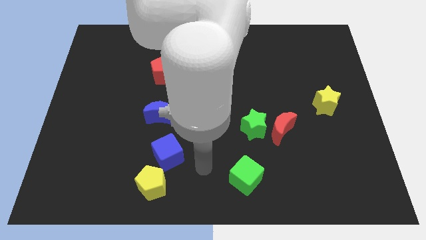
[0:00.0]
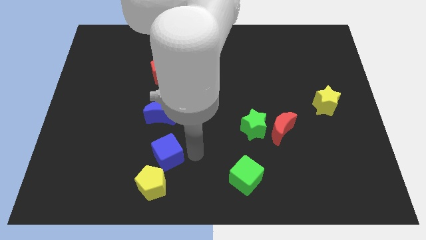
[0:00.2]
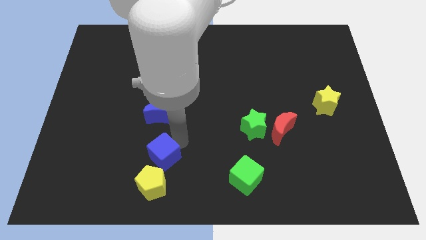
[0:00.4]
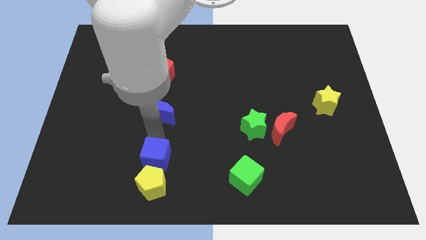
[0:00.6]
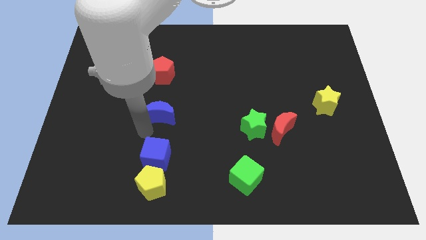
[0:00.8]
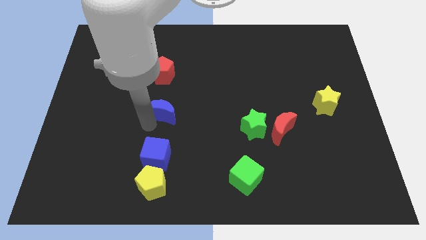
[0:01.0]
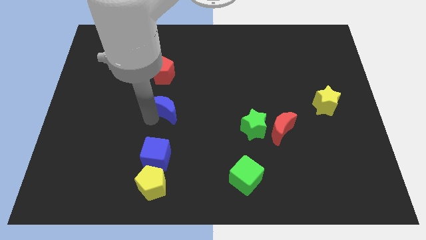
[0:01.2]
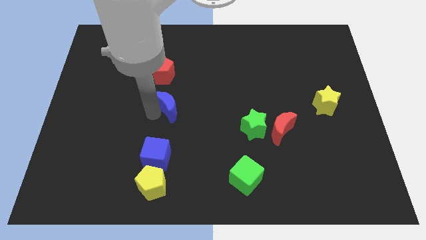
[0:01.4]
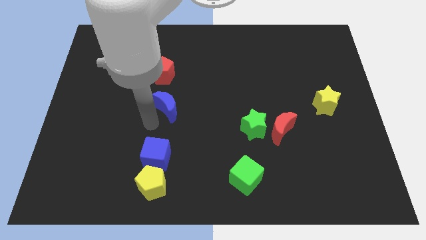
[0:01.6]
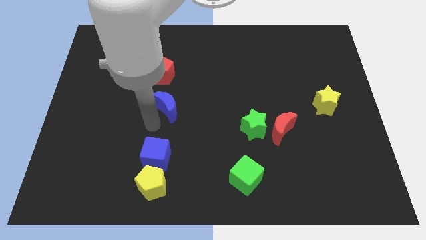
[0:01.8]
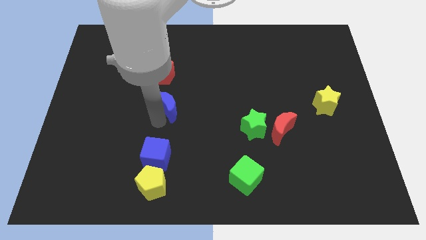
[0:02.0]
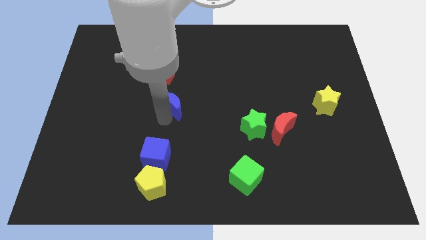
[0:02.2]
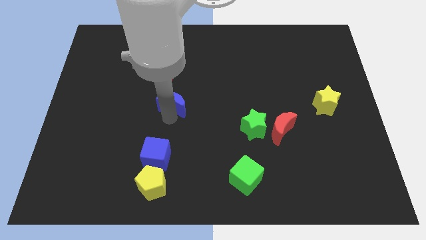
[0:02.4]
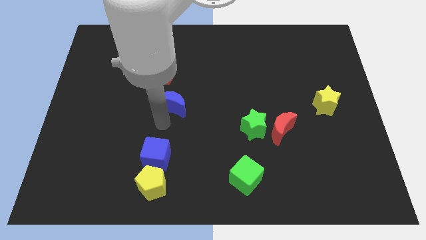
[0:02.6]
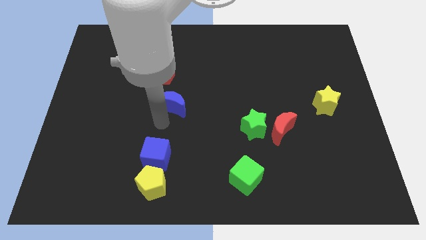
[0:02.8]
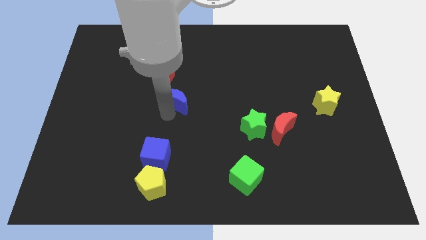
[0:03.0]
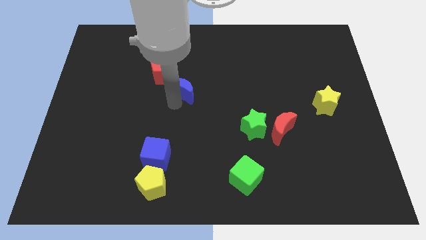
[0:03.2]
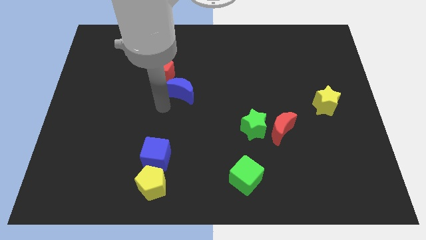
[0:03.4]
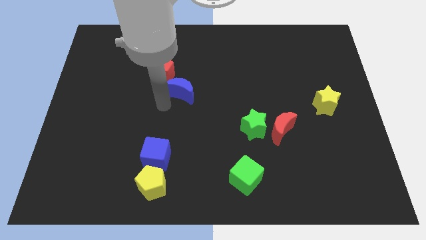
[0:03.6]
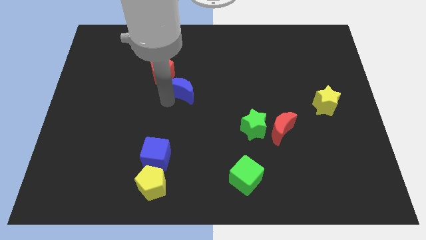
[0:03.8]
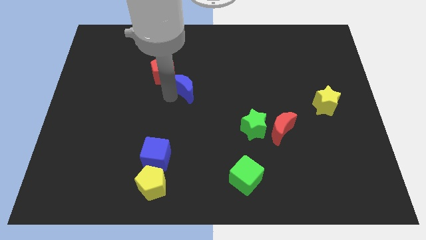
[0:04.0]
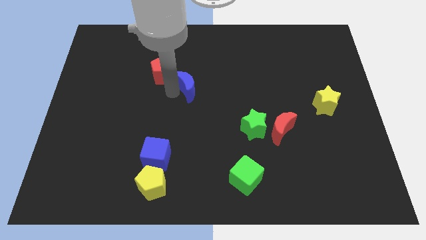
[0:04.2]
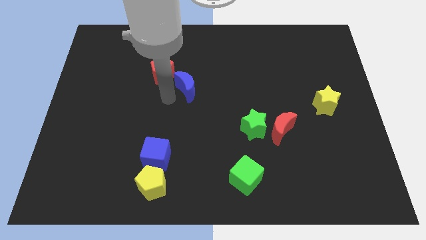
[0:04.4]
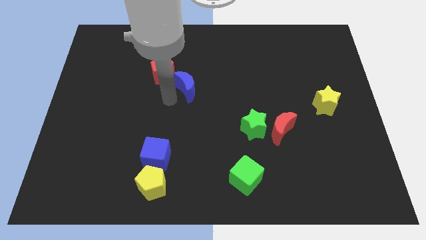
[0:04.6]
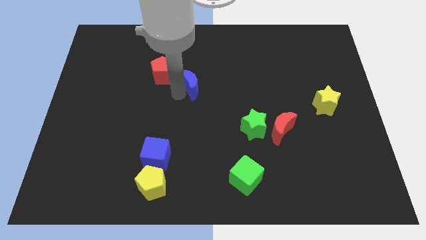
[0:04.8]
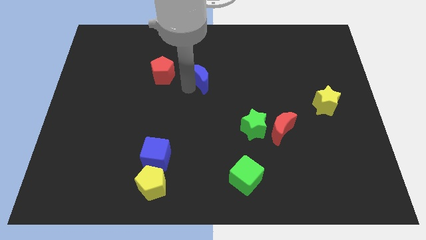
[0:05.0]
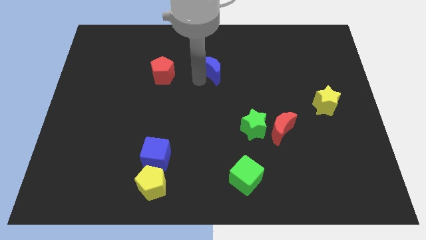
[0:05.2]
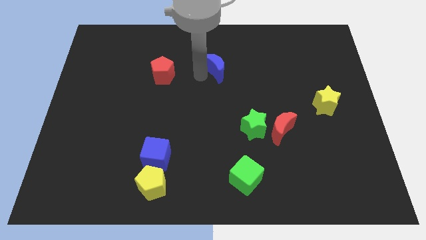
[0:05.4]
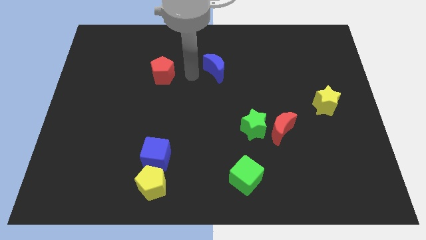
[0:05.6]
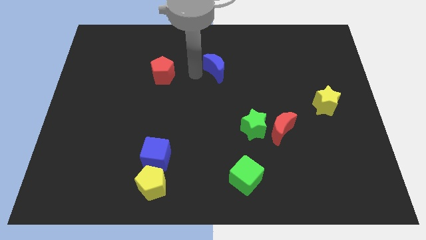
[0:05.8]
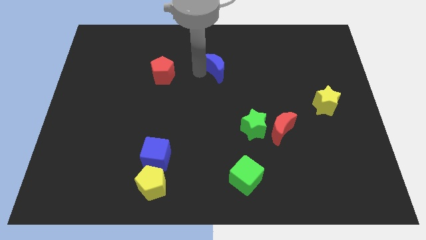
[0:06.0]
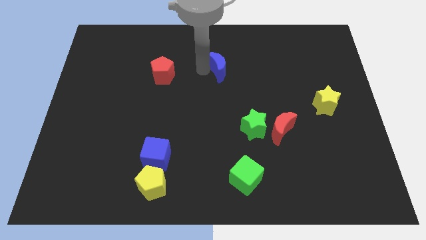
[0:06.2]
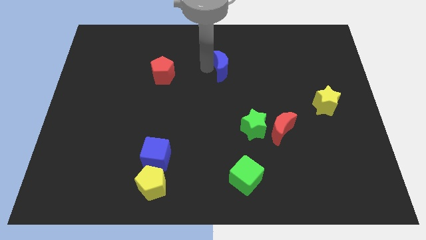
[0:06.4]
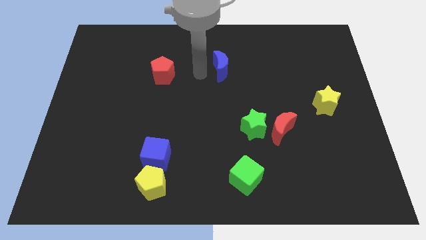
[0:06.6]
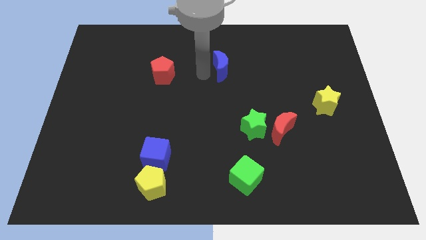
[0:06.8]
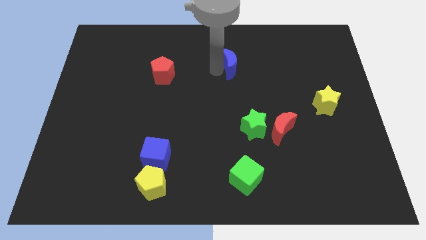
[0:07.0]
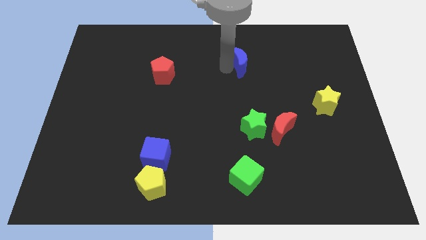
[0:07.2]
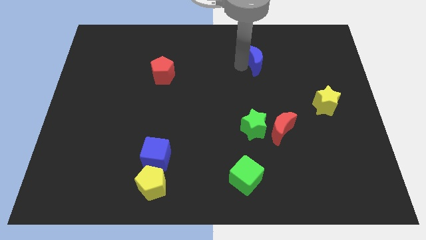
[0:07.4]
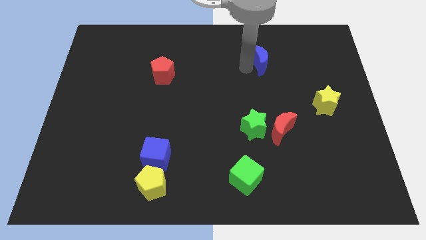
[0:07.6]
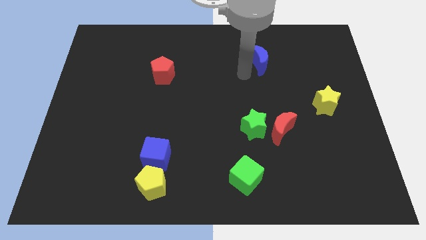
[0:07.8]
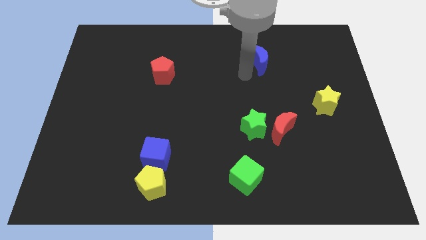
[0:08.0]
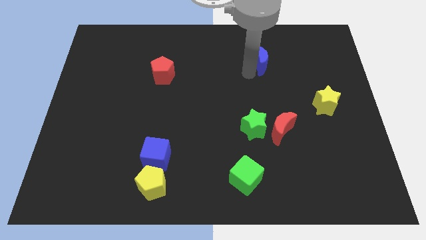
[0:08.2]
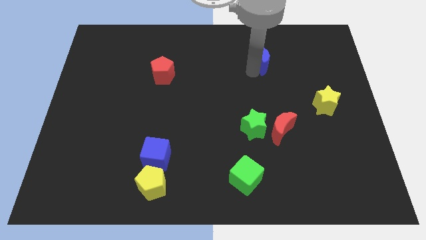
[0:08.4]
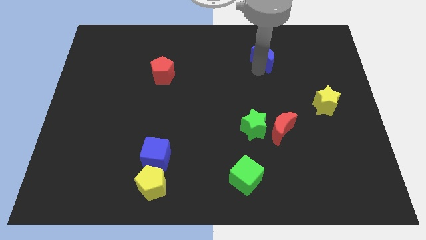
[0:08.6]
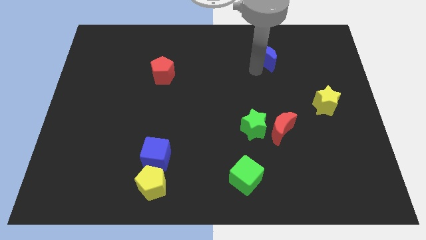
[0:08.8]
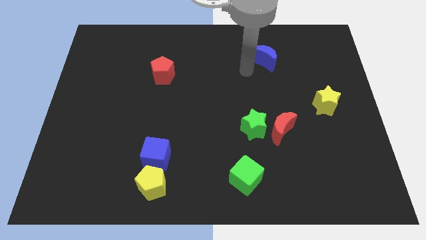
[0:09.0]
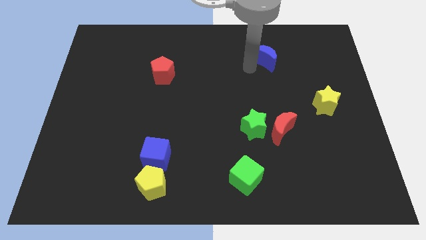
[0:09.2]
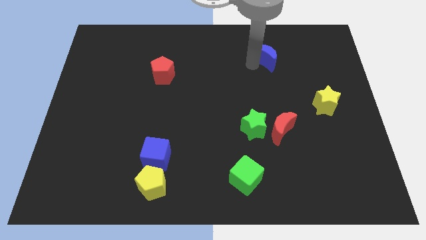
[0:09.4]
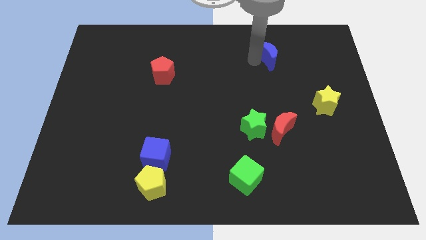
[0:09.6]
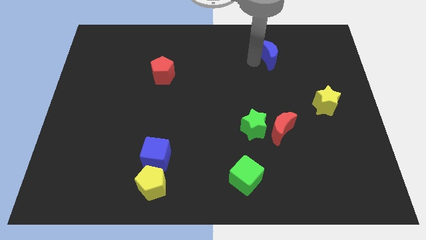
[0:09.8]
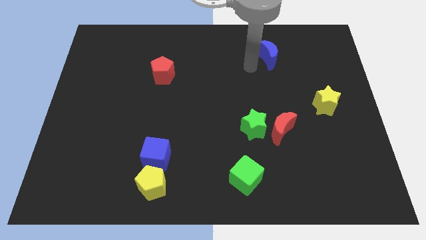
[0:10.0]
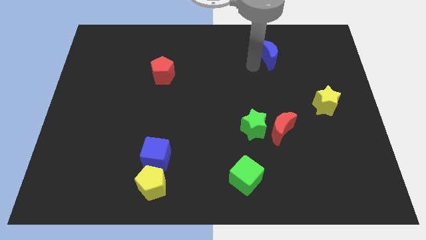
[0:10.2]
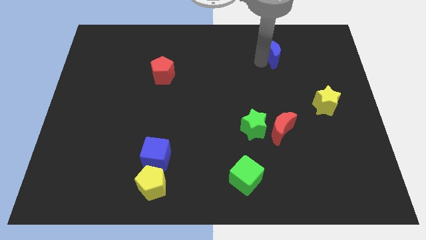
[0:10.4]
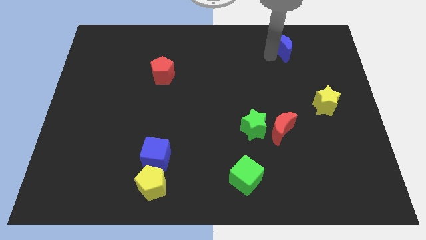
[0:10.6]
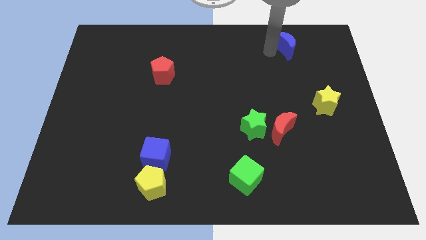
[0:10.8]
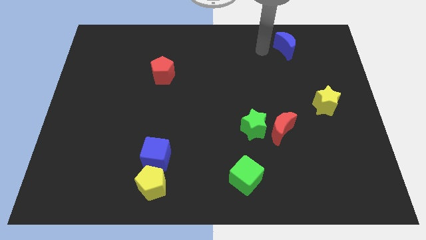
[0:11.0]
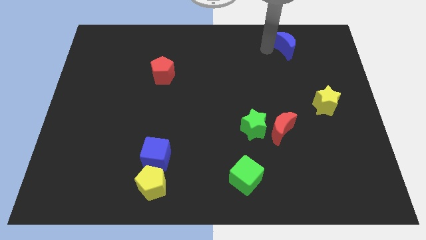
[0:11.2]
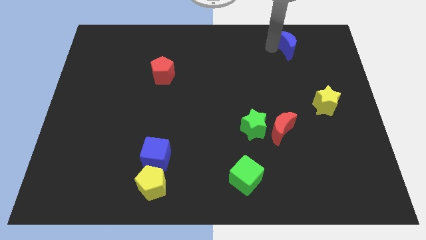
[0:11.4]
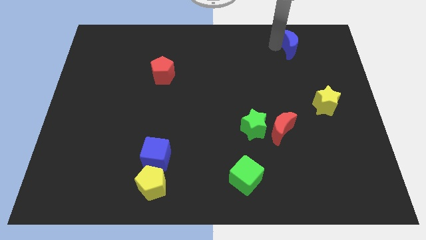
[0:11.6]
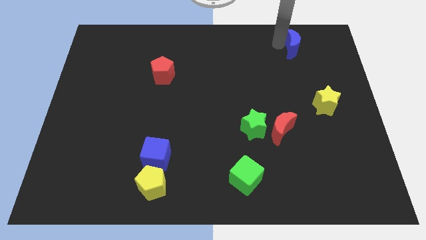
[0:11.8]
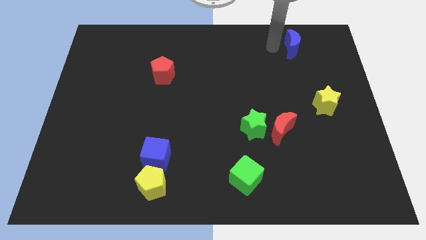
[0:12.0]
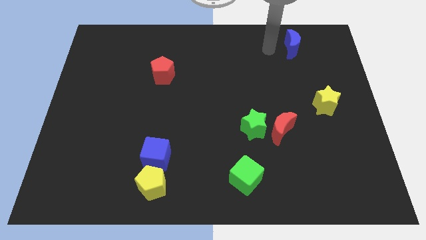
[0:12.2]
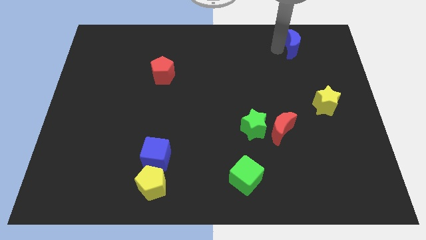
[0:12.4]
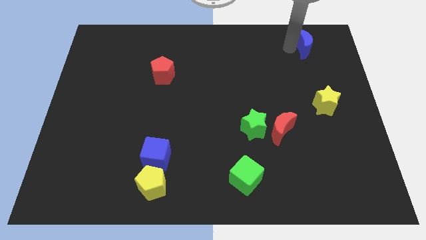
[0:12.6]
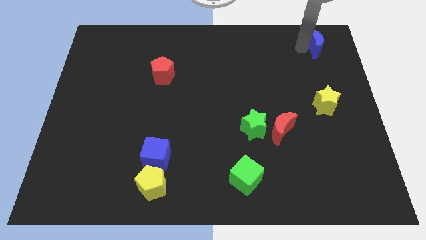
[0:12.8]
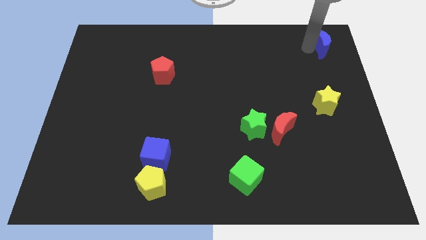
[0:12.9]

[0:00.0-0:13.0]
slide the blue moon to the top right corner

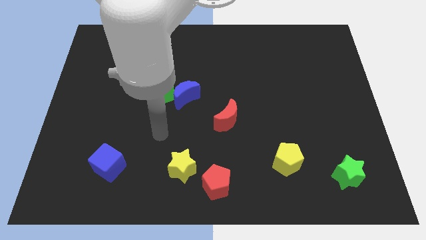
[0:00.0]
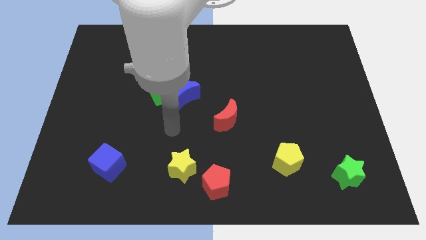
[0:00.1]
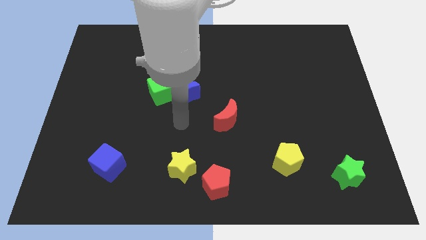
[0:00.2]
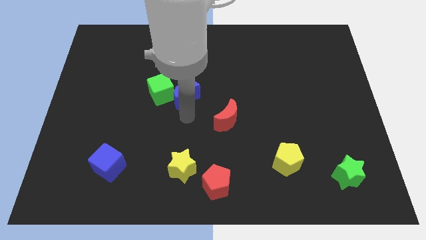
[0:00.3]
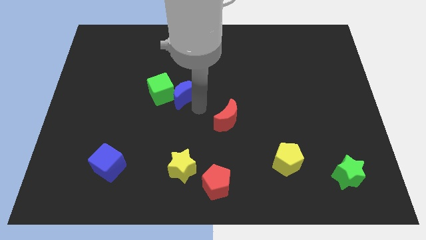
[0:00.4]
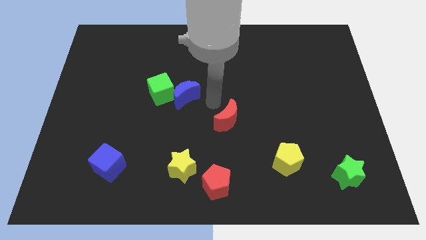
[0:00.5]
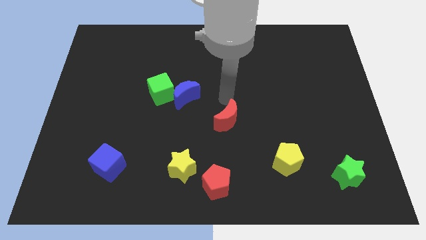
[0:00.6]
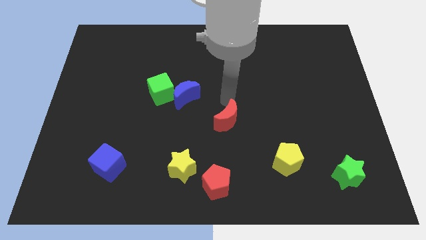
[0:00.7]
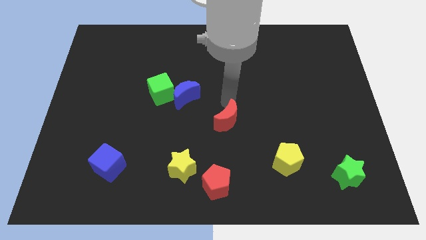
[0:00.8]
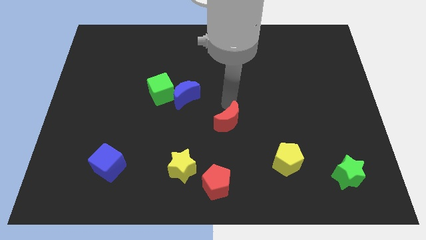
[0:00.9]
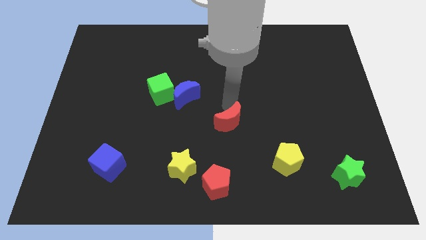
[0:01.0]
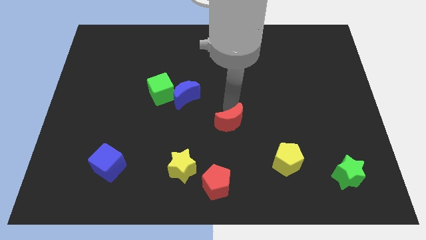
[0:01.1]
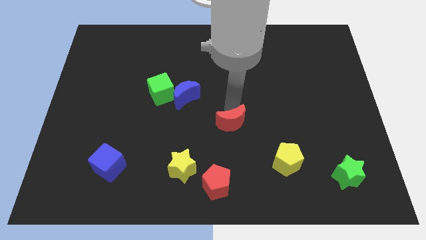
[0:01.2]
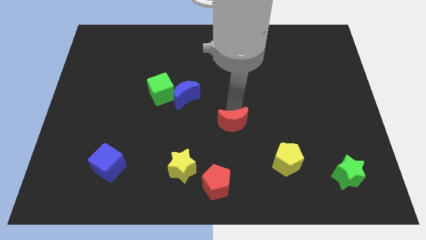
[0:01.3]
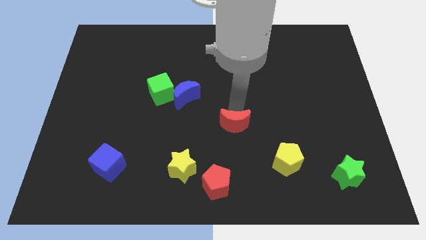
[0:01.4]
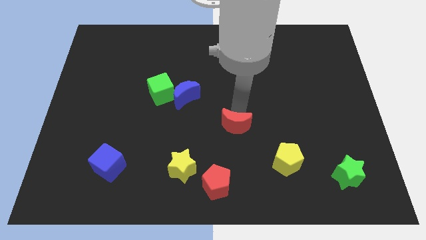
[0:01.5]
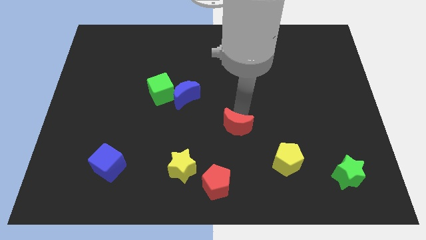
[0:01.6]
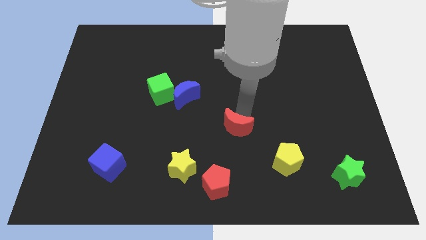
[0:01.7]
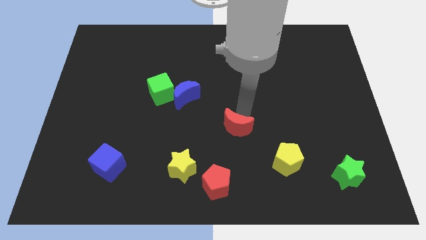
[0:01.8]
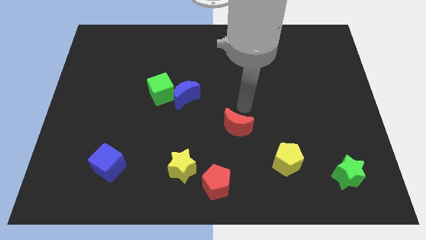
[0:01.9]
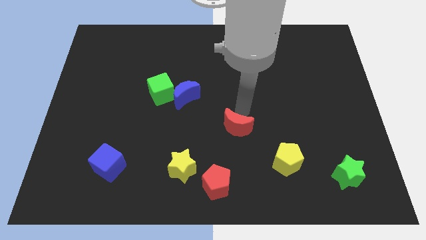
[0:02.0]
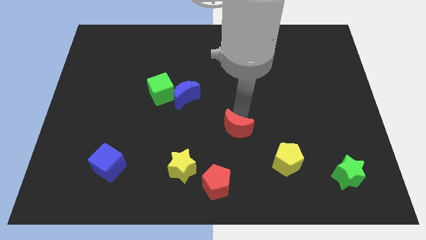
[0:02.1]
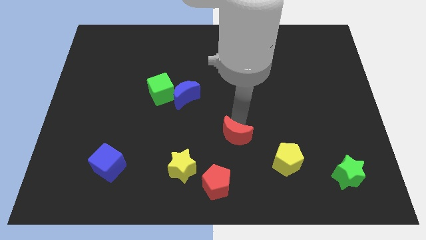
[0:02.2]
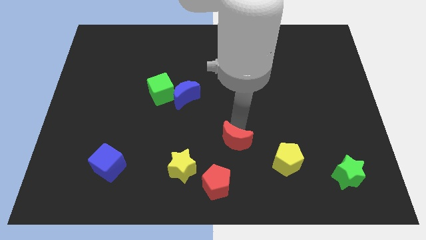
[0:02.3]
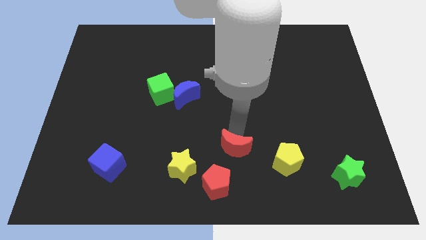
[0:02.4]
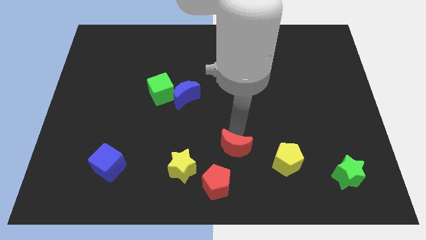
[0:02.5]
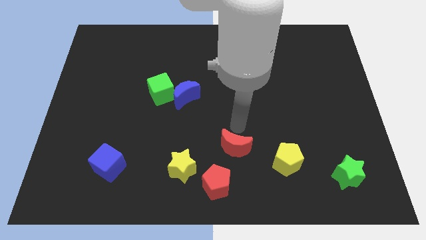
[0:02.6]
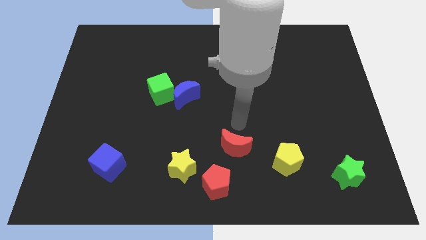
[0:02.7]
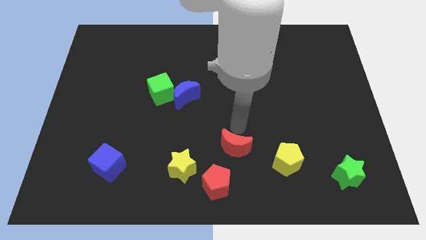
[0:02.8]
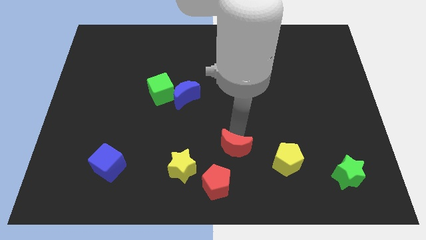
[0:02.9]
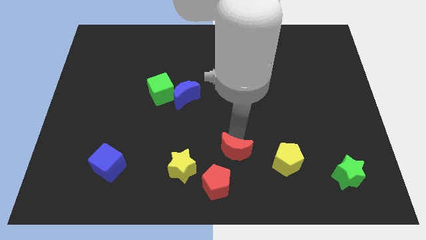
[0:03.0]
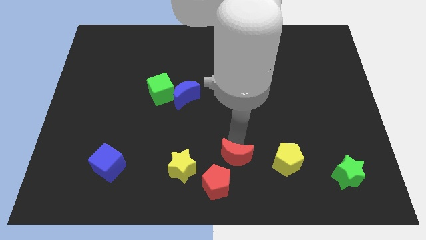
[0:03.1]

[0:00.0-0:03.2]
move the red moon to the bottom side
